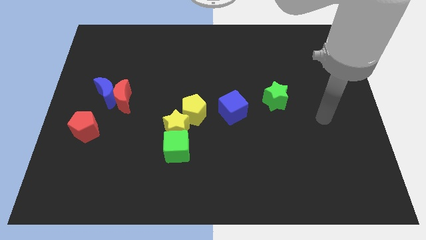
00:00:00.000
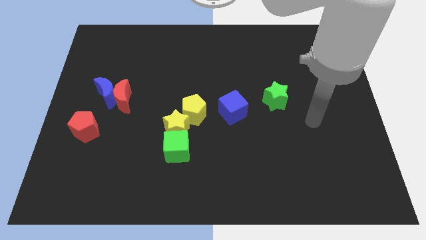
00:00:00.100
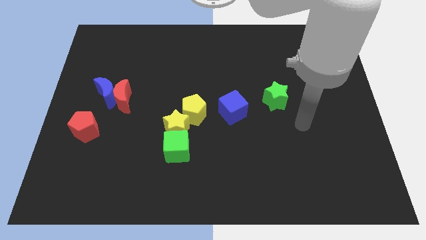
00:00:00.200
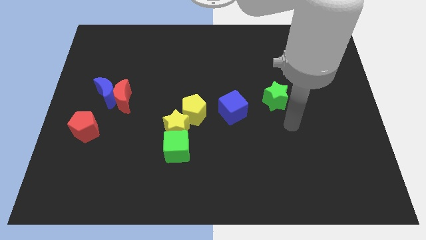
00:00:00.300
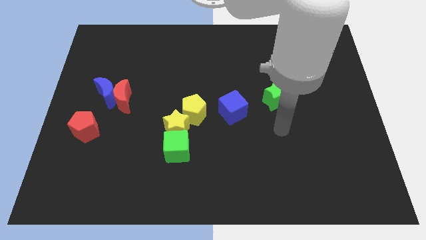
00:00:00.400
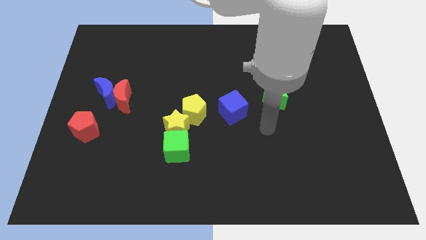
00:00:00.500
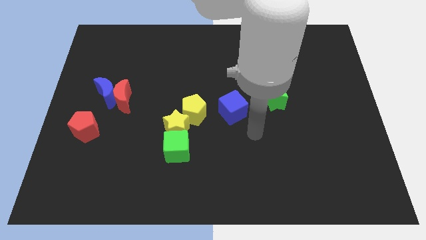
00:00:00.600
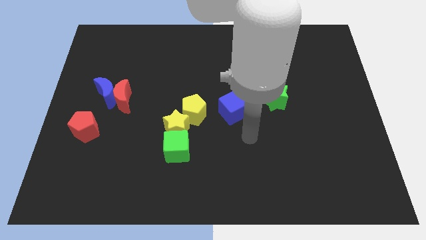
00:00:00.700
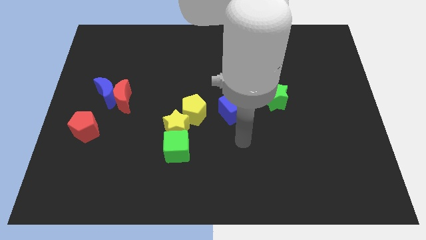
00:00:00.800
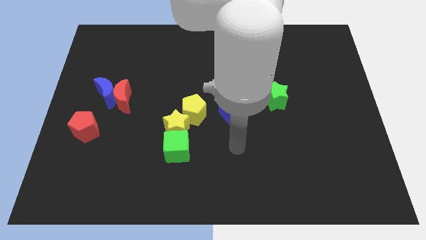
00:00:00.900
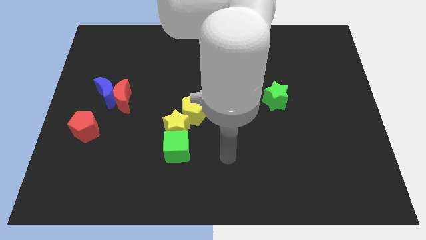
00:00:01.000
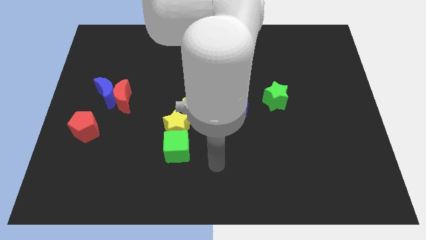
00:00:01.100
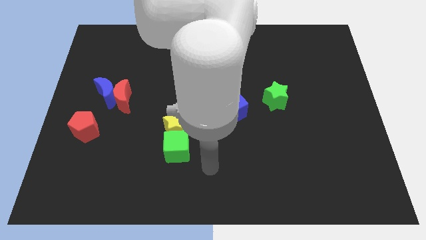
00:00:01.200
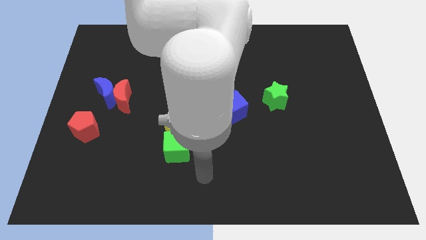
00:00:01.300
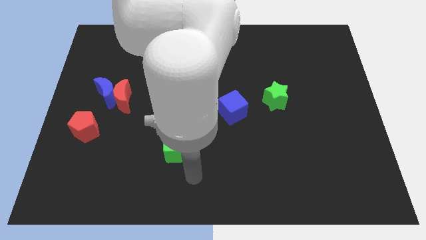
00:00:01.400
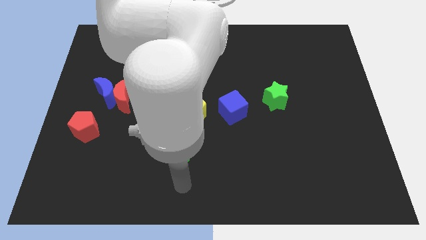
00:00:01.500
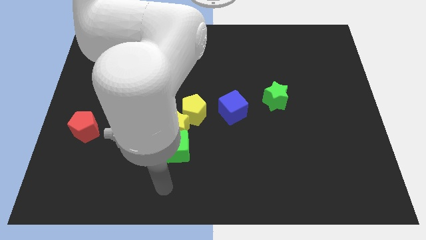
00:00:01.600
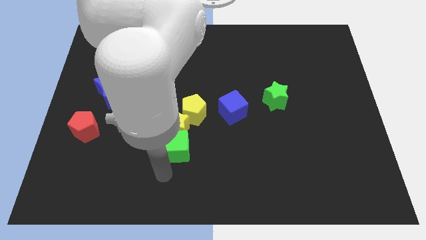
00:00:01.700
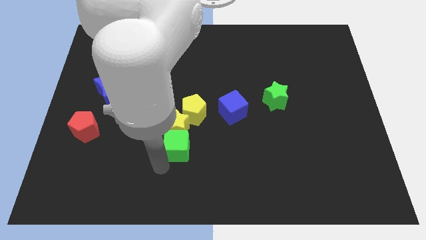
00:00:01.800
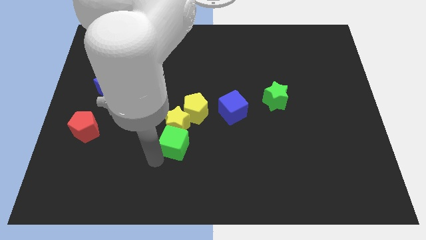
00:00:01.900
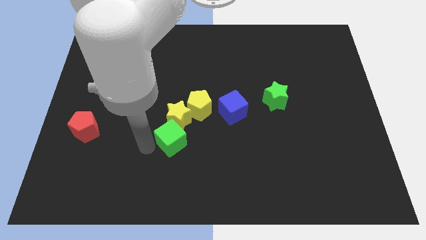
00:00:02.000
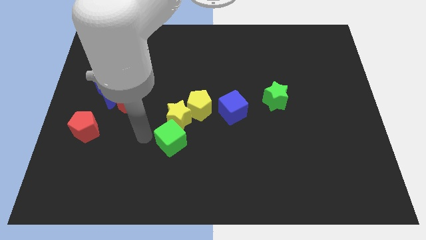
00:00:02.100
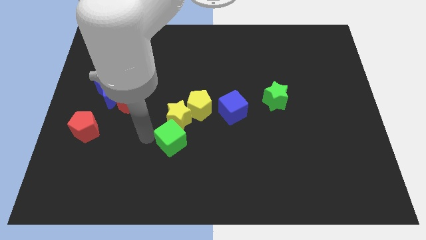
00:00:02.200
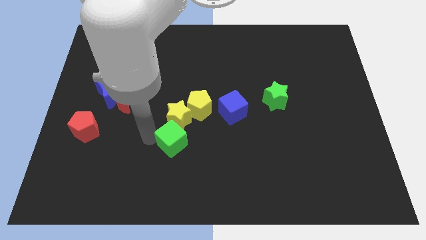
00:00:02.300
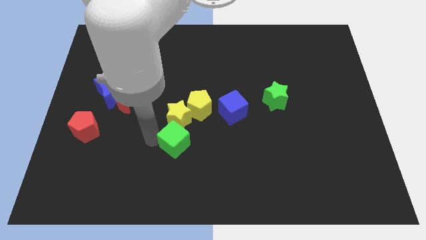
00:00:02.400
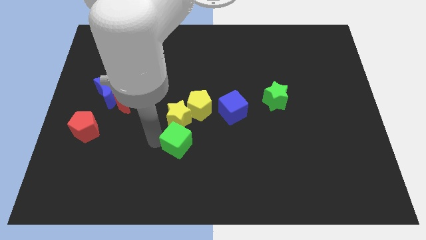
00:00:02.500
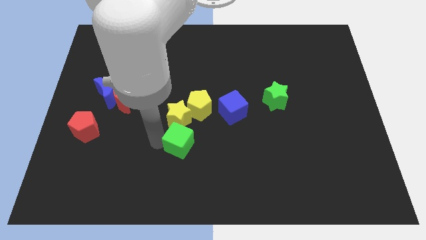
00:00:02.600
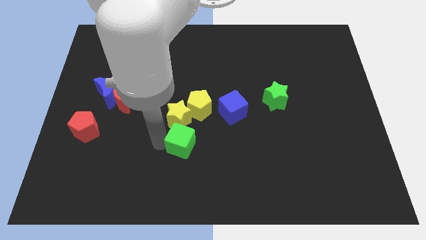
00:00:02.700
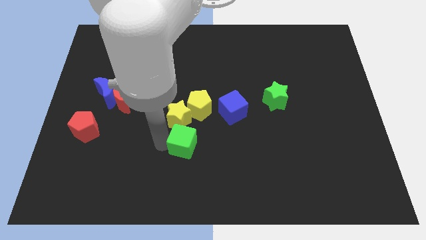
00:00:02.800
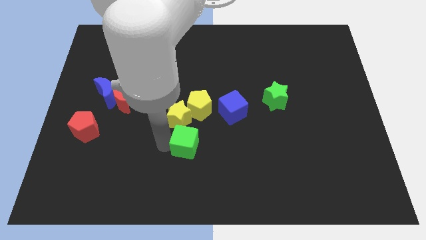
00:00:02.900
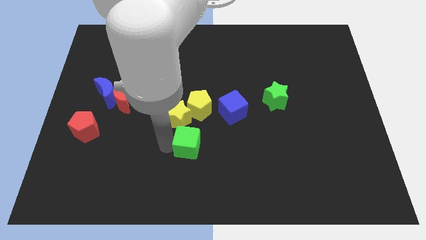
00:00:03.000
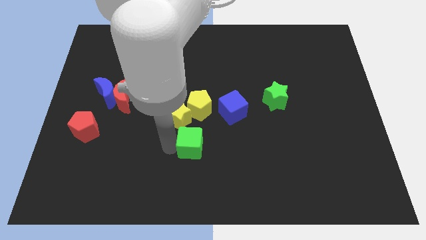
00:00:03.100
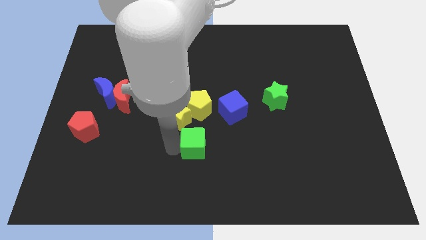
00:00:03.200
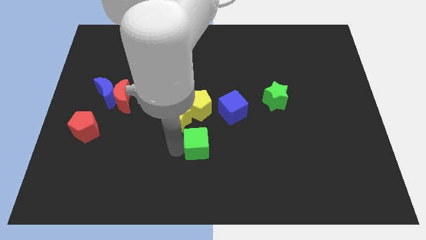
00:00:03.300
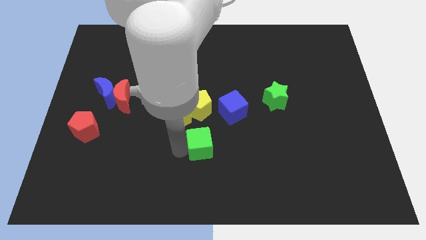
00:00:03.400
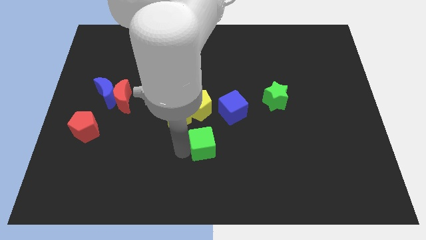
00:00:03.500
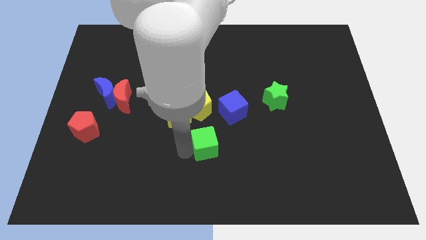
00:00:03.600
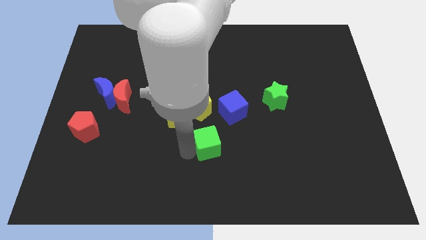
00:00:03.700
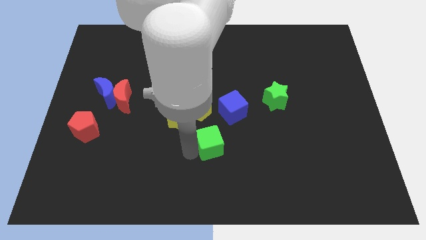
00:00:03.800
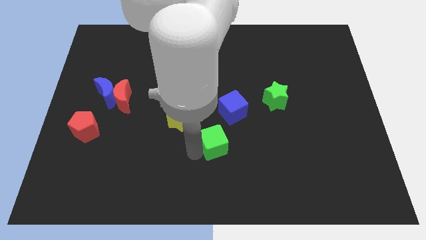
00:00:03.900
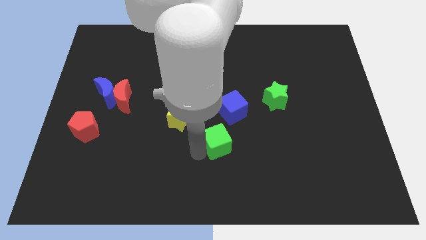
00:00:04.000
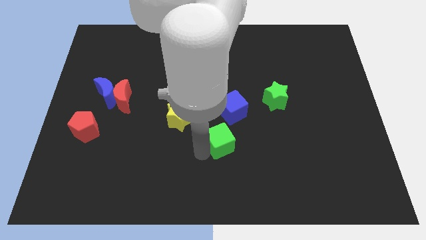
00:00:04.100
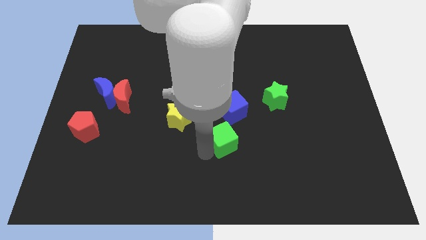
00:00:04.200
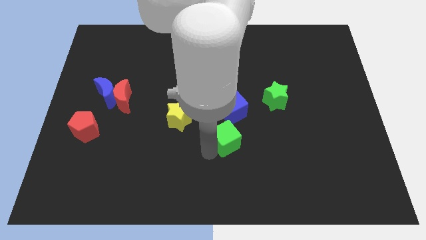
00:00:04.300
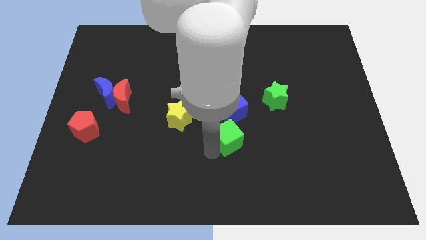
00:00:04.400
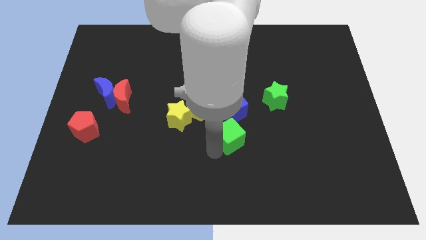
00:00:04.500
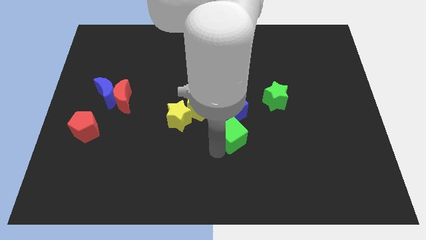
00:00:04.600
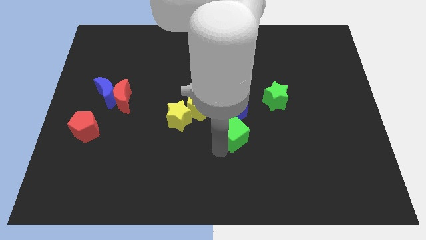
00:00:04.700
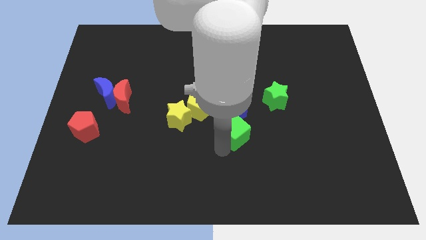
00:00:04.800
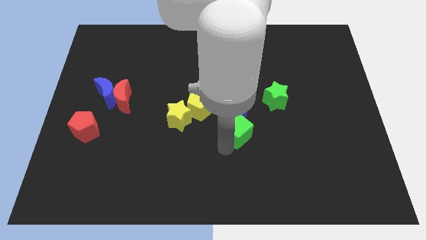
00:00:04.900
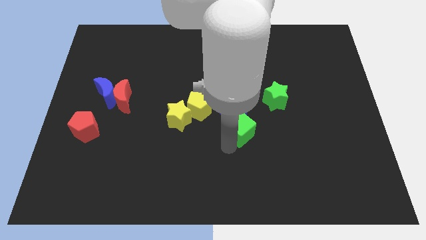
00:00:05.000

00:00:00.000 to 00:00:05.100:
put the green cube to the bottom left side of the green star

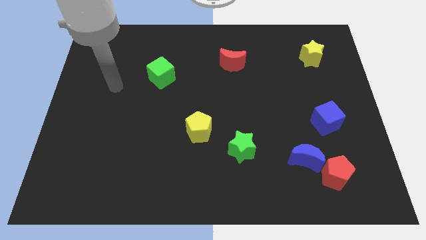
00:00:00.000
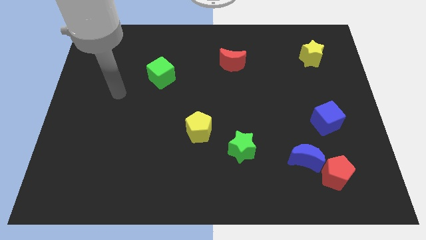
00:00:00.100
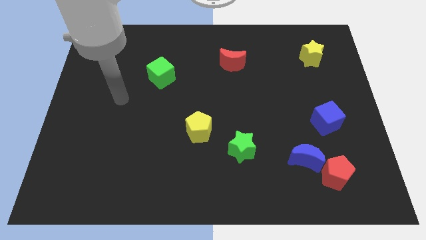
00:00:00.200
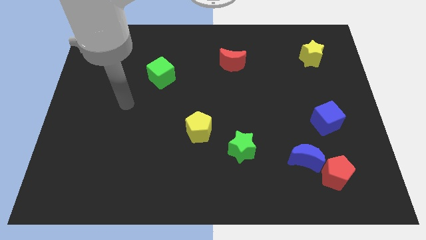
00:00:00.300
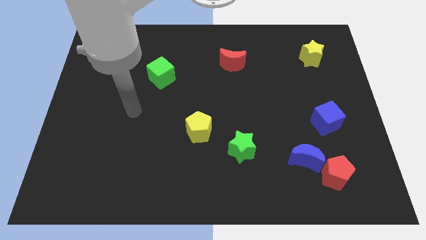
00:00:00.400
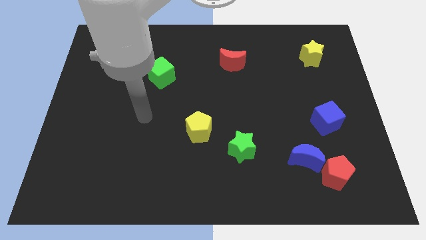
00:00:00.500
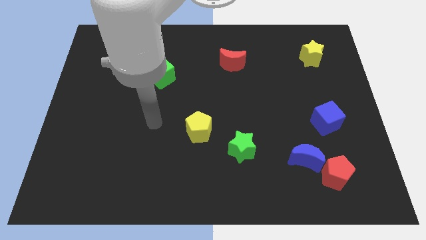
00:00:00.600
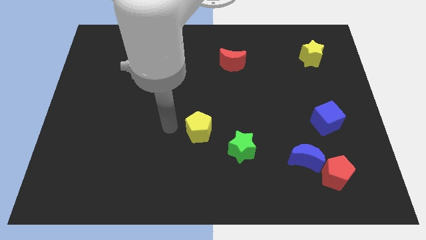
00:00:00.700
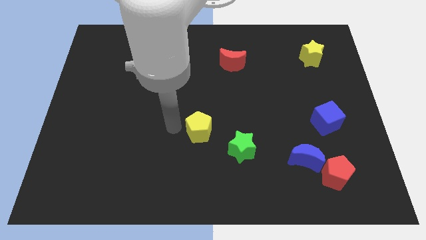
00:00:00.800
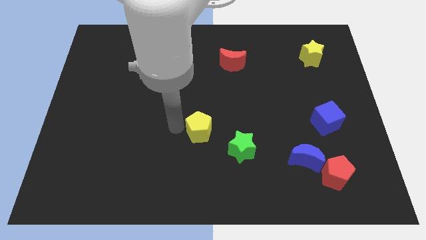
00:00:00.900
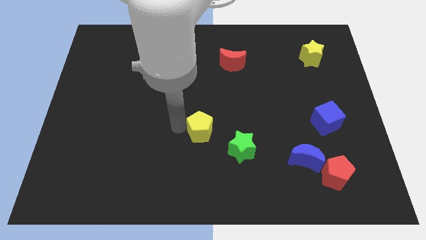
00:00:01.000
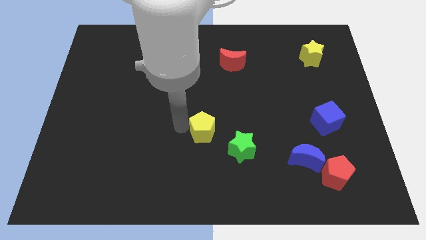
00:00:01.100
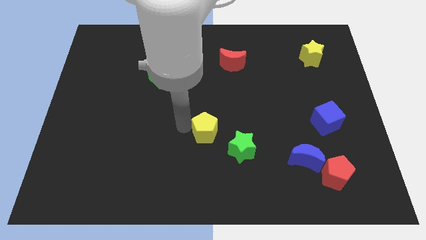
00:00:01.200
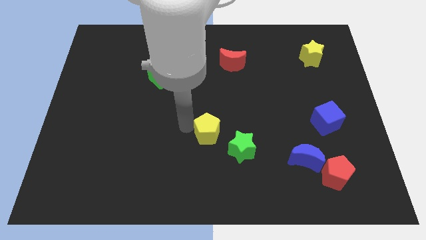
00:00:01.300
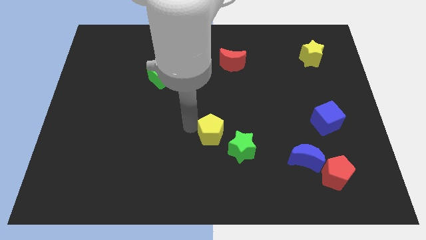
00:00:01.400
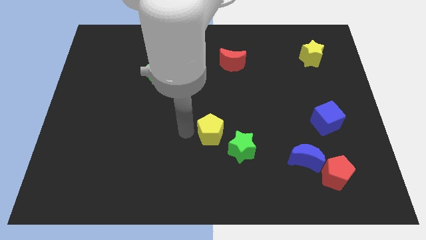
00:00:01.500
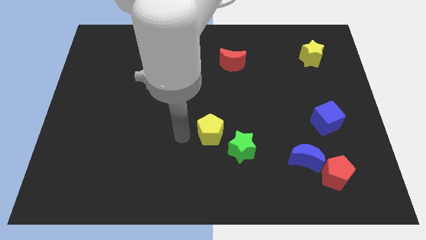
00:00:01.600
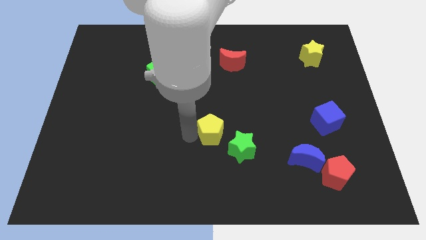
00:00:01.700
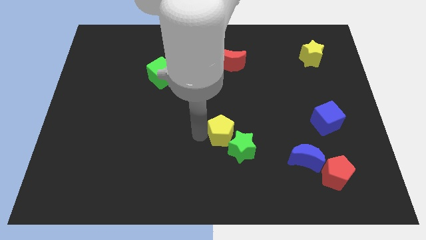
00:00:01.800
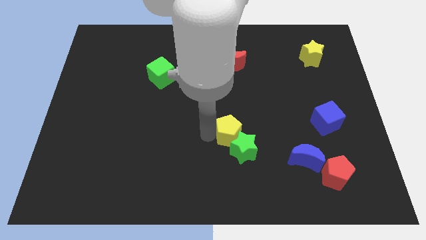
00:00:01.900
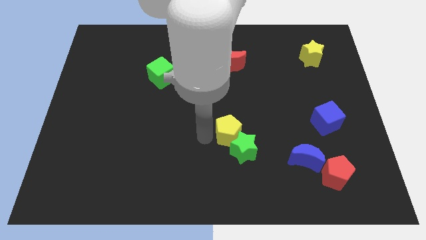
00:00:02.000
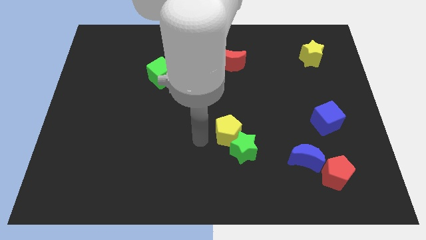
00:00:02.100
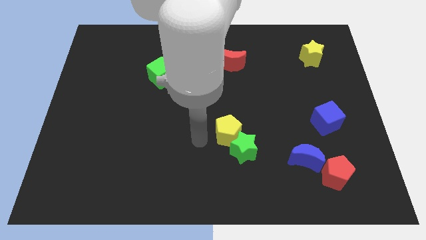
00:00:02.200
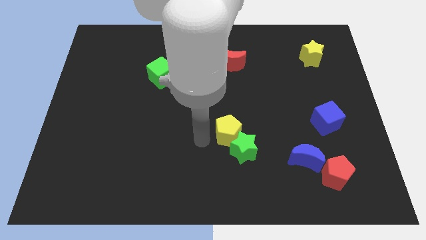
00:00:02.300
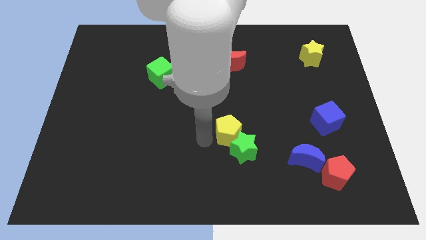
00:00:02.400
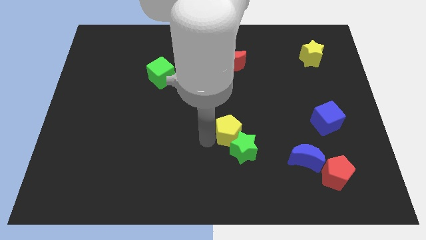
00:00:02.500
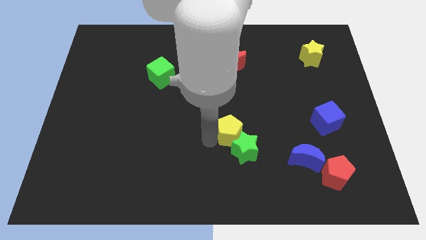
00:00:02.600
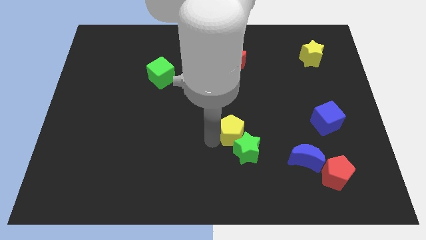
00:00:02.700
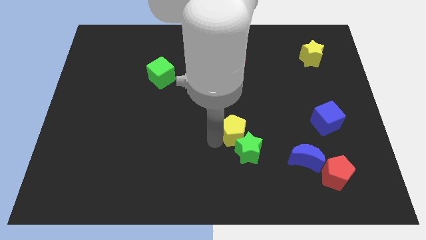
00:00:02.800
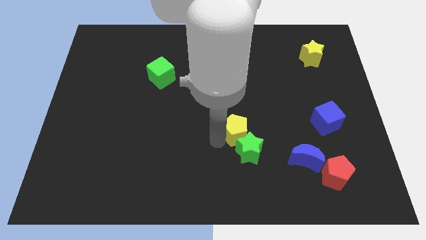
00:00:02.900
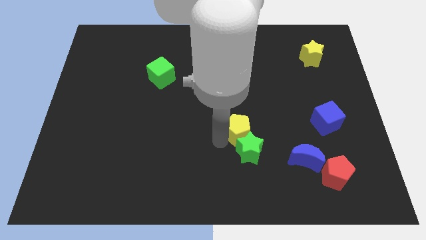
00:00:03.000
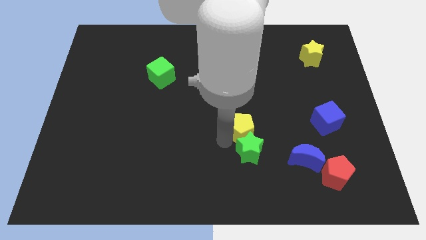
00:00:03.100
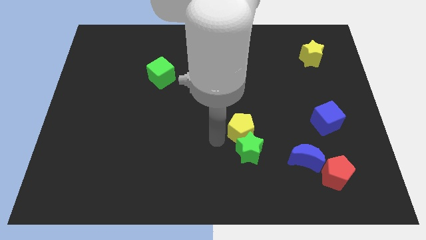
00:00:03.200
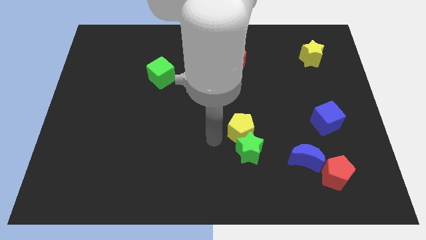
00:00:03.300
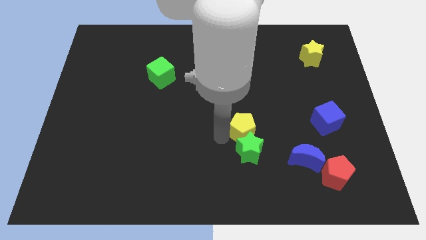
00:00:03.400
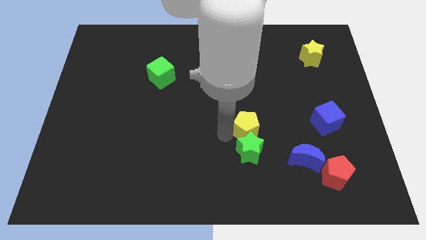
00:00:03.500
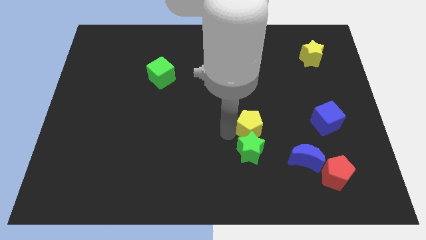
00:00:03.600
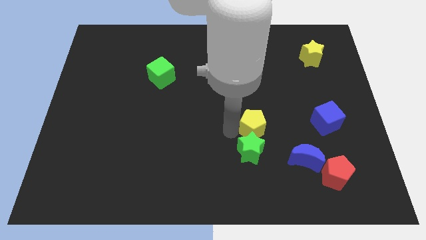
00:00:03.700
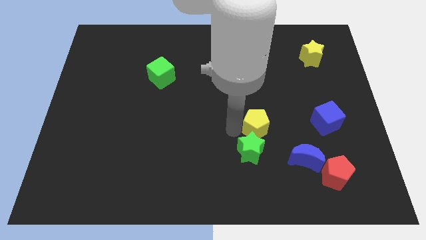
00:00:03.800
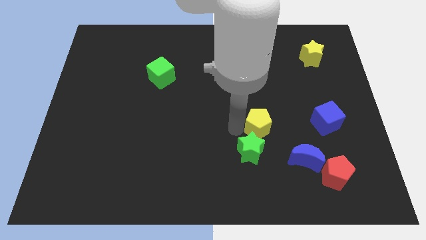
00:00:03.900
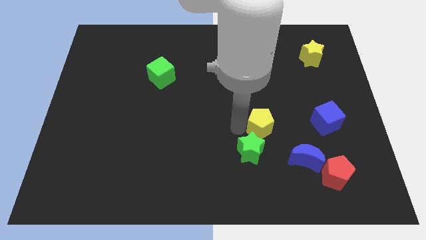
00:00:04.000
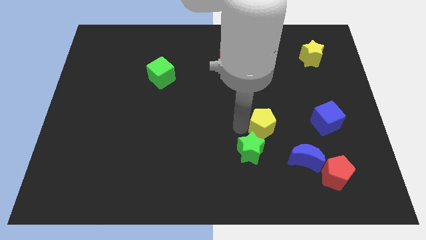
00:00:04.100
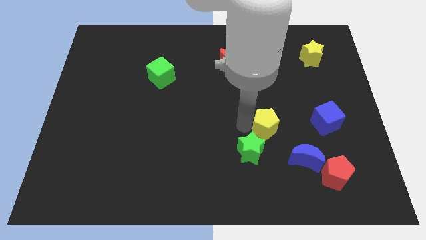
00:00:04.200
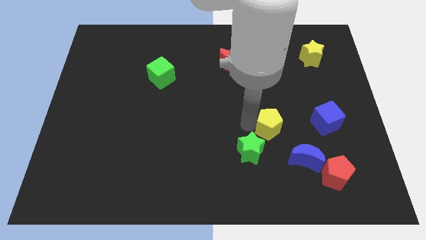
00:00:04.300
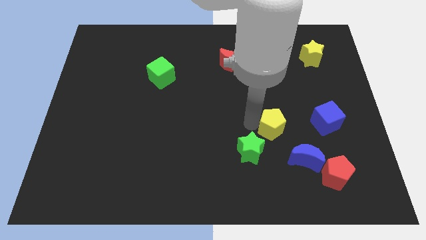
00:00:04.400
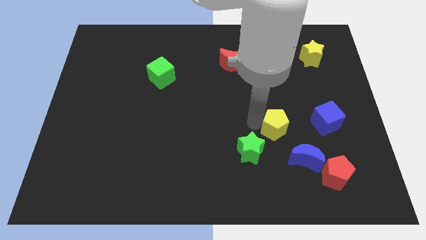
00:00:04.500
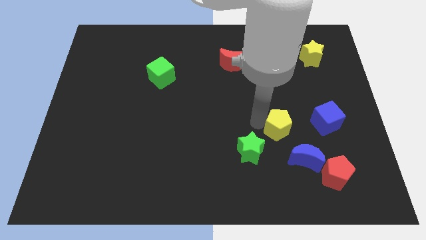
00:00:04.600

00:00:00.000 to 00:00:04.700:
slide the yellow pentagon above the blue moon
